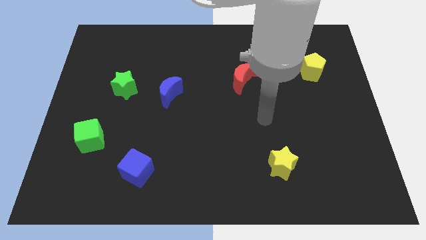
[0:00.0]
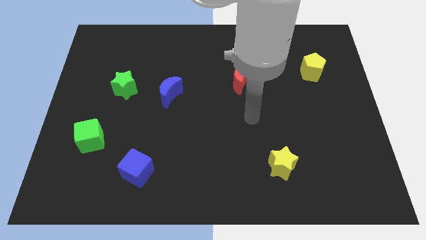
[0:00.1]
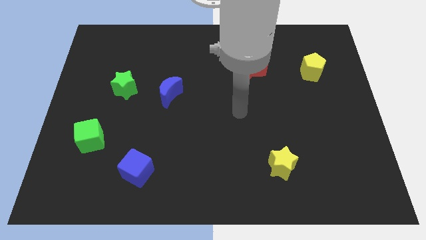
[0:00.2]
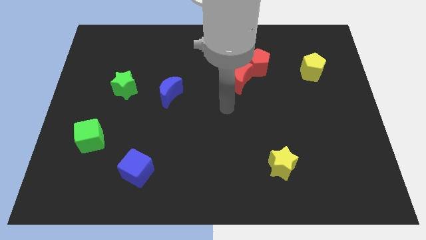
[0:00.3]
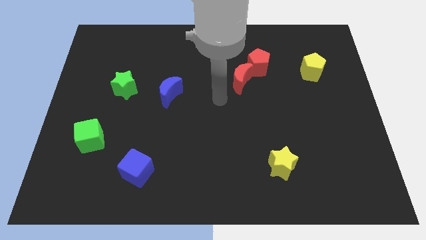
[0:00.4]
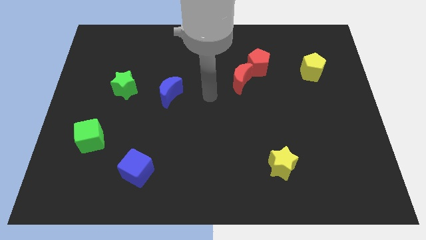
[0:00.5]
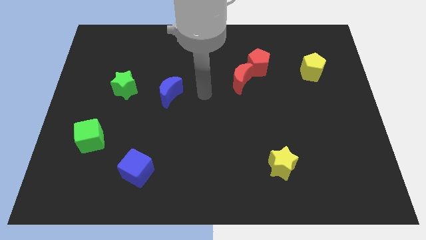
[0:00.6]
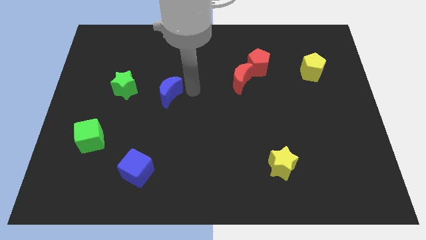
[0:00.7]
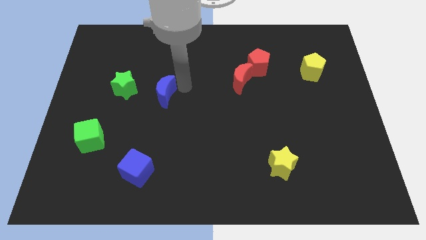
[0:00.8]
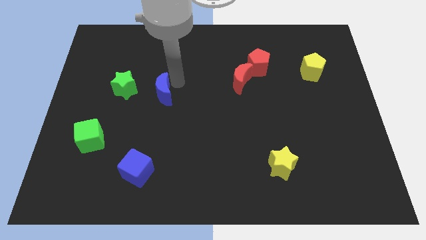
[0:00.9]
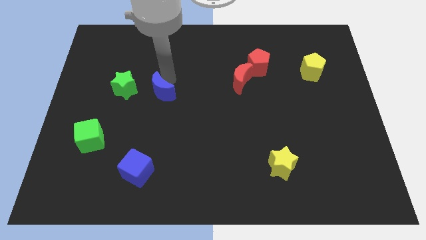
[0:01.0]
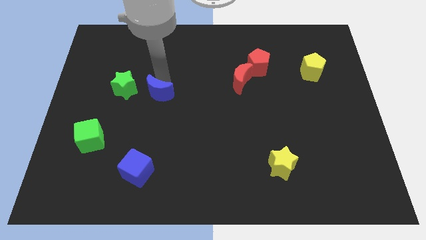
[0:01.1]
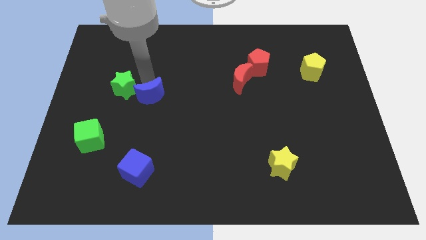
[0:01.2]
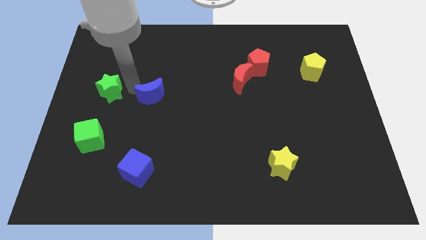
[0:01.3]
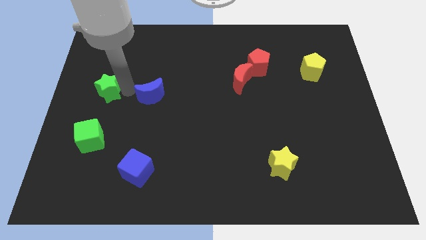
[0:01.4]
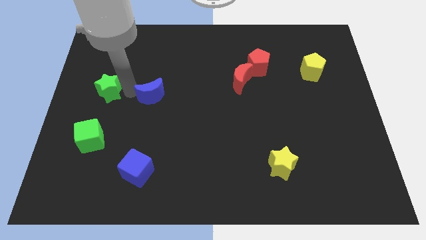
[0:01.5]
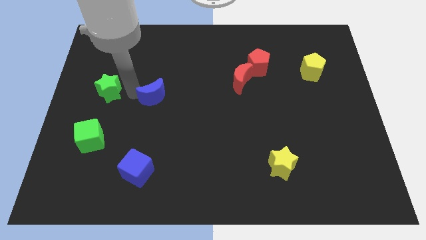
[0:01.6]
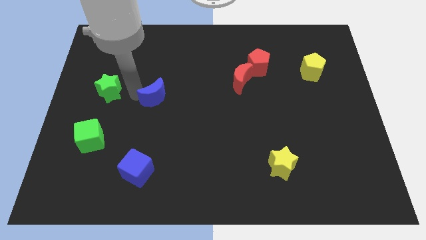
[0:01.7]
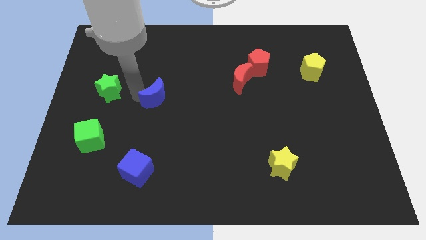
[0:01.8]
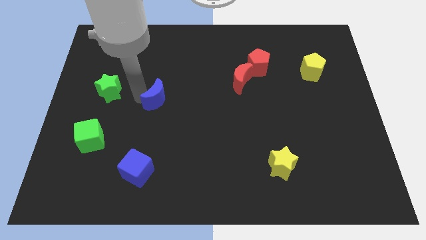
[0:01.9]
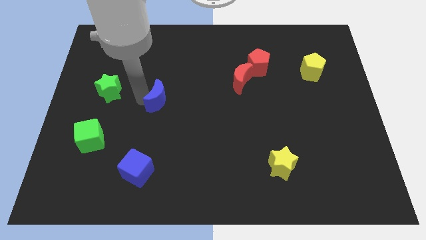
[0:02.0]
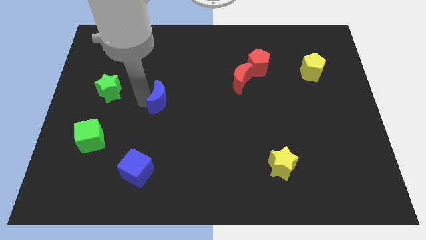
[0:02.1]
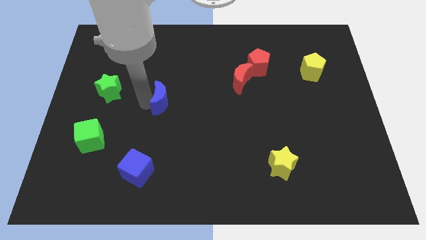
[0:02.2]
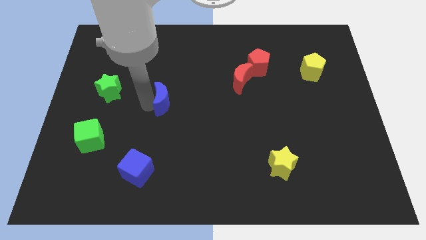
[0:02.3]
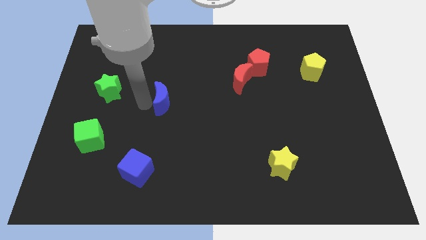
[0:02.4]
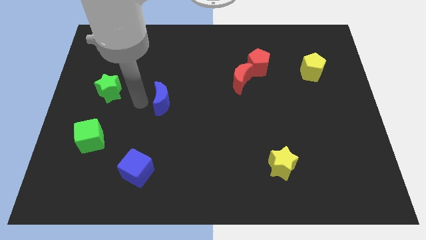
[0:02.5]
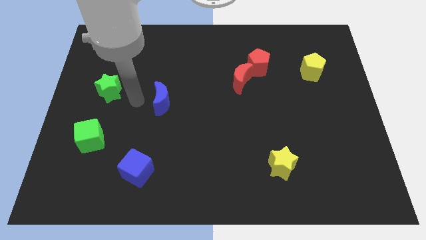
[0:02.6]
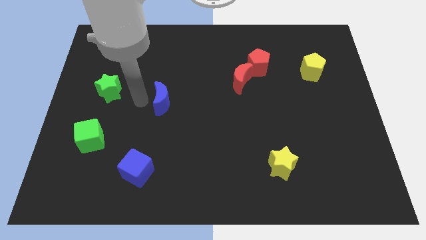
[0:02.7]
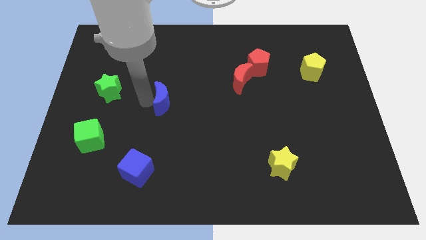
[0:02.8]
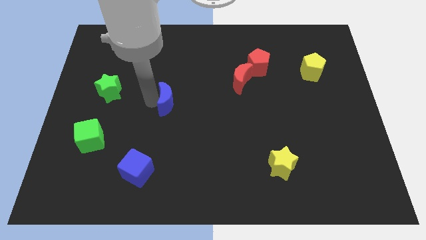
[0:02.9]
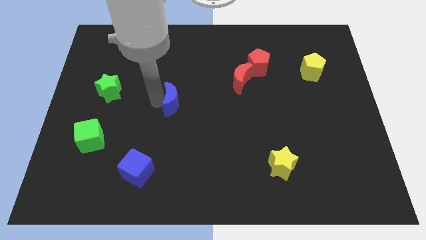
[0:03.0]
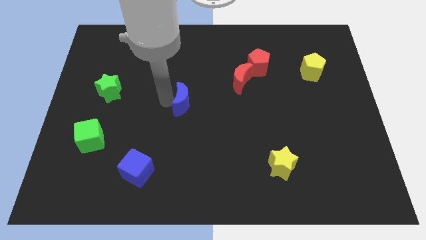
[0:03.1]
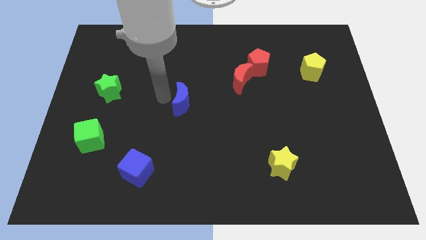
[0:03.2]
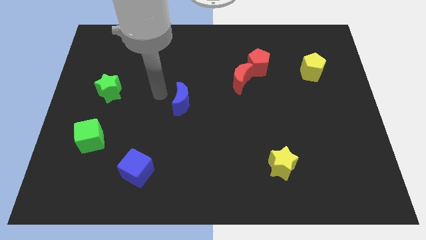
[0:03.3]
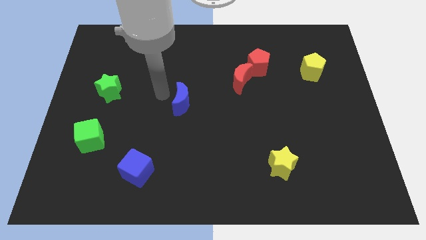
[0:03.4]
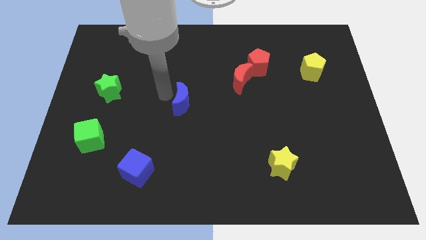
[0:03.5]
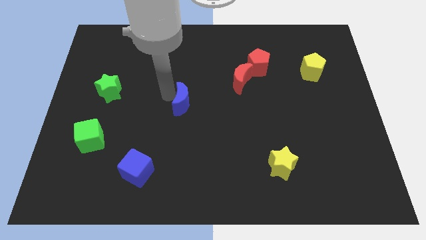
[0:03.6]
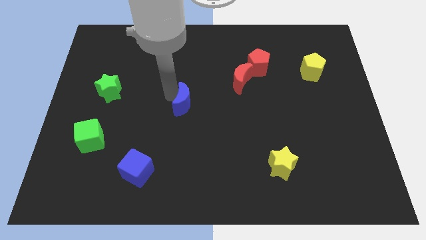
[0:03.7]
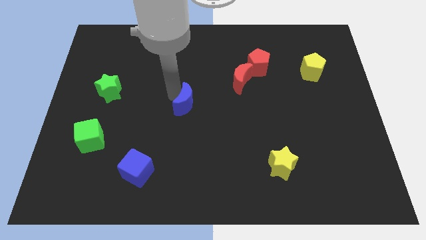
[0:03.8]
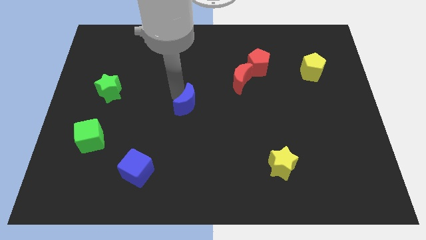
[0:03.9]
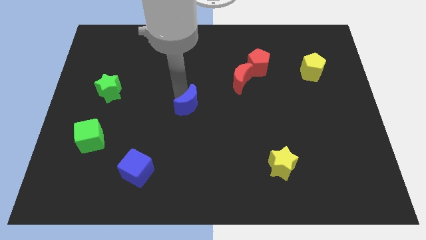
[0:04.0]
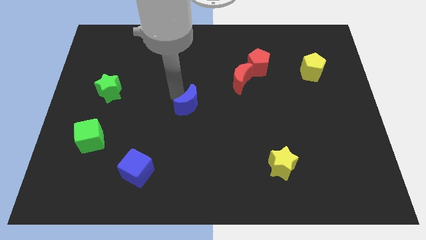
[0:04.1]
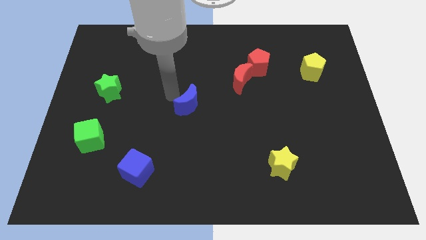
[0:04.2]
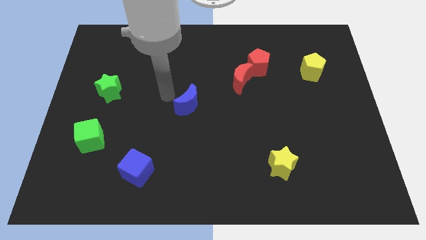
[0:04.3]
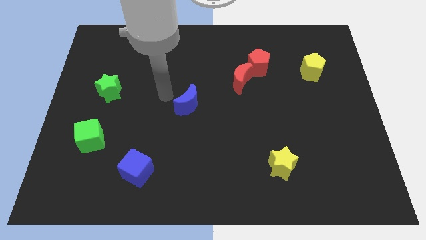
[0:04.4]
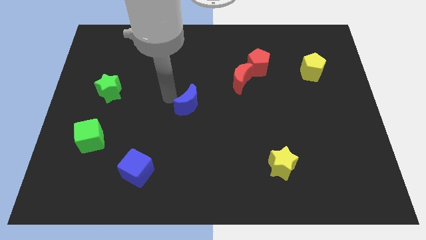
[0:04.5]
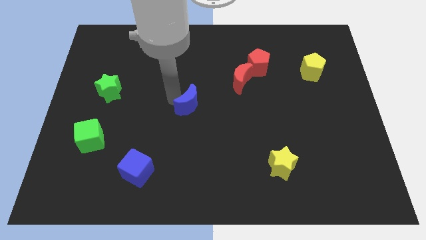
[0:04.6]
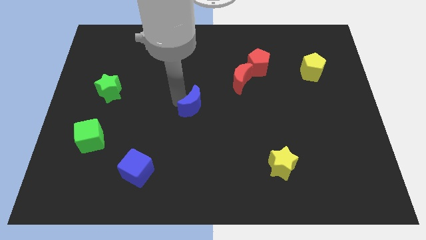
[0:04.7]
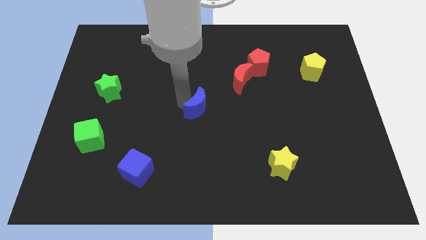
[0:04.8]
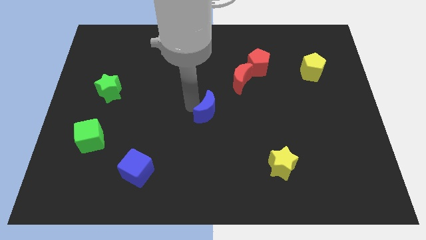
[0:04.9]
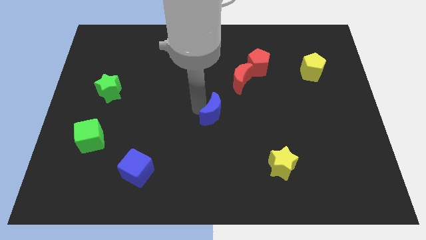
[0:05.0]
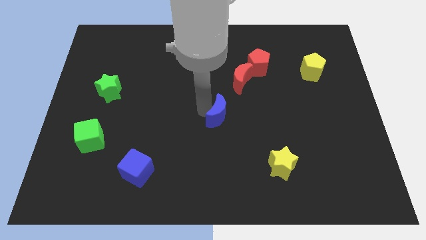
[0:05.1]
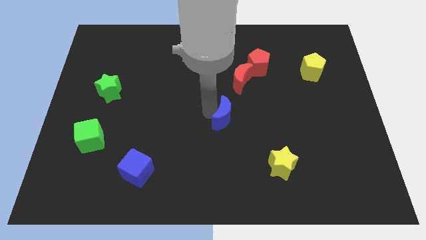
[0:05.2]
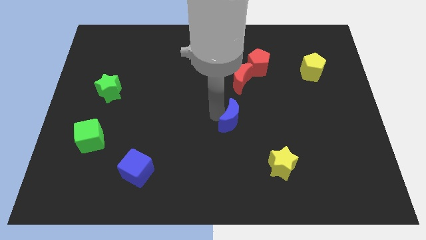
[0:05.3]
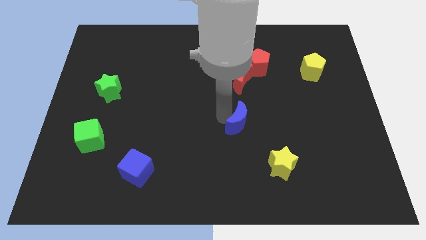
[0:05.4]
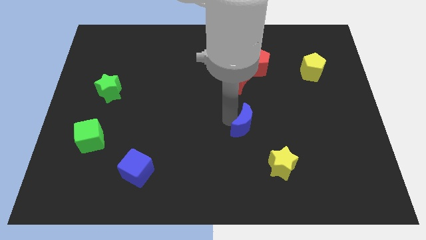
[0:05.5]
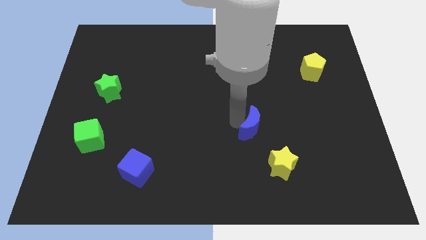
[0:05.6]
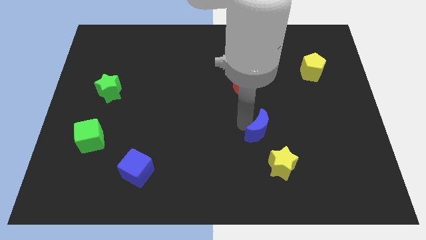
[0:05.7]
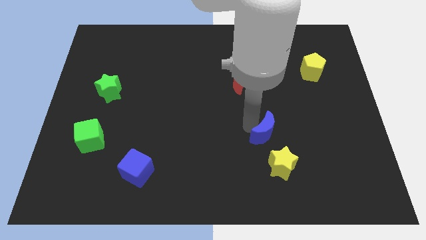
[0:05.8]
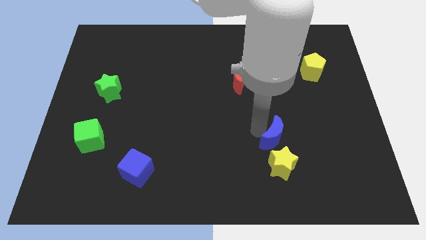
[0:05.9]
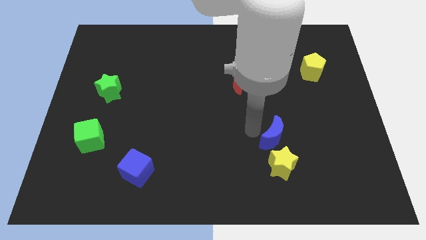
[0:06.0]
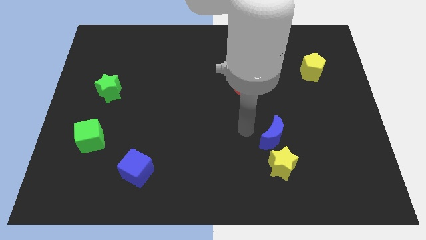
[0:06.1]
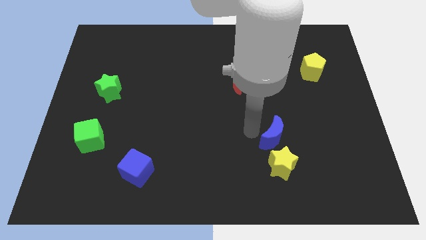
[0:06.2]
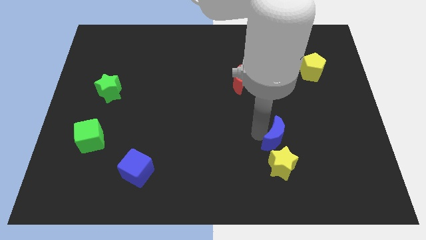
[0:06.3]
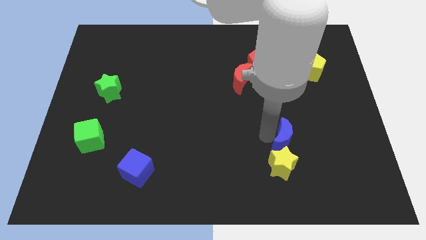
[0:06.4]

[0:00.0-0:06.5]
slide the blue moon diagonally up and to the right of the yellow star

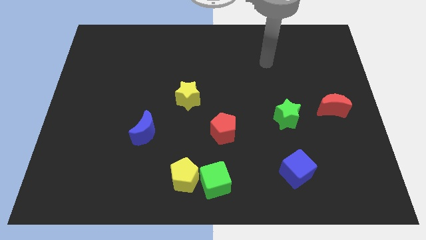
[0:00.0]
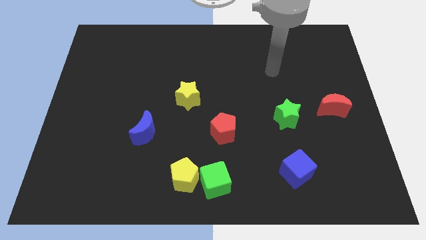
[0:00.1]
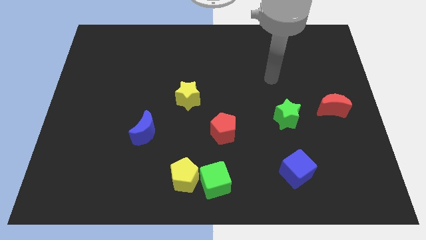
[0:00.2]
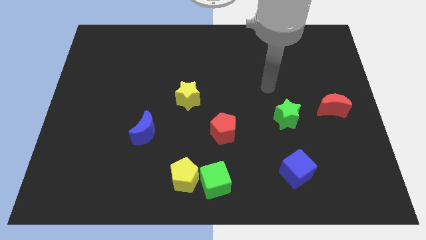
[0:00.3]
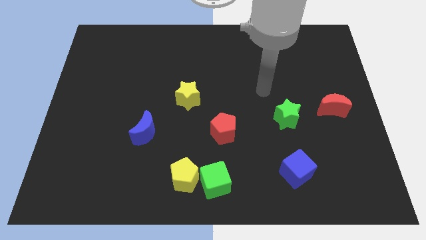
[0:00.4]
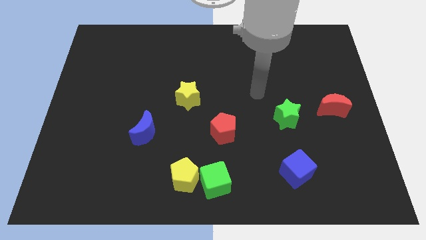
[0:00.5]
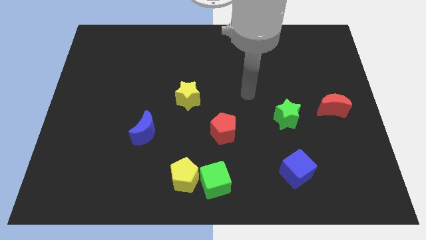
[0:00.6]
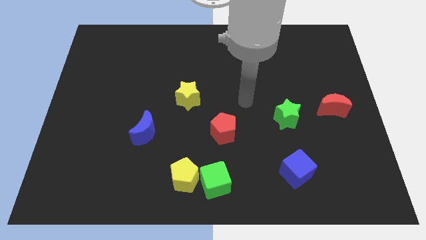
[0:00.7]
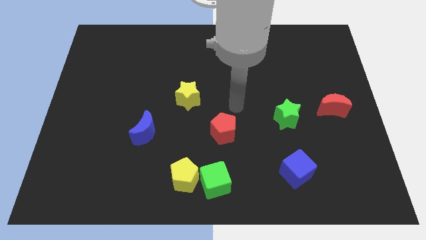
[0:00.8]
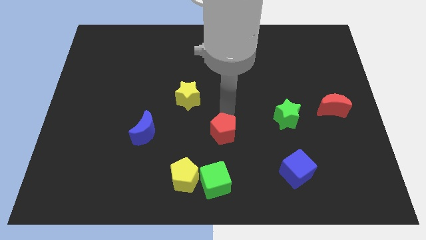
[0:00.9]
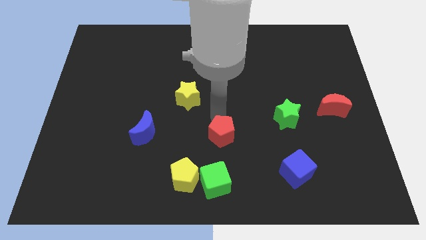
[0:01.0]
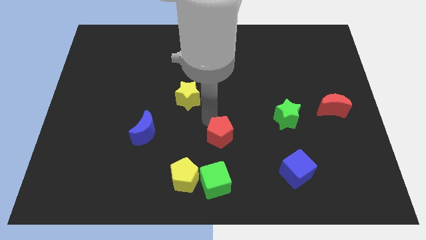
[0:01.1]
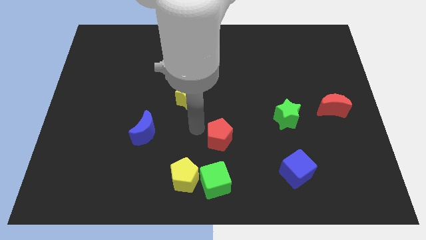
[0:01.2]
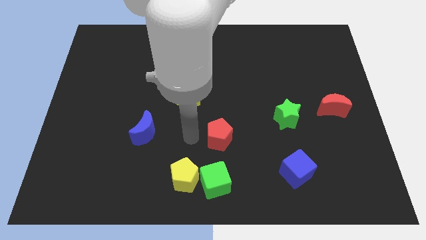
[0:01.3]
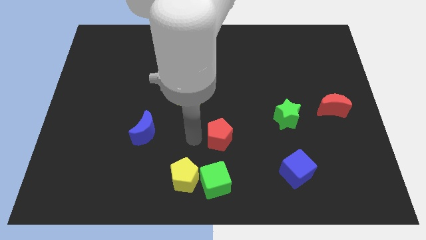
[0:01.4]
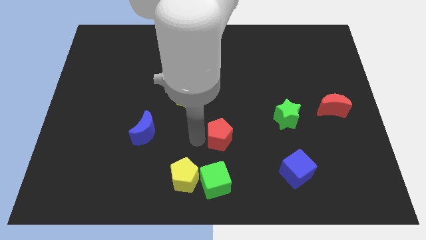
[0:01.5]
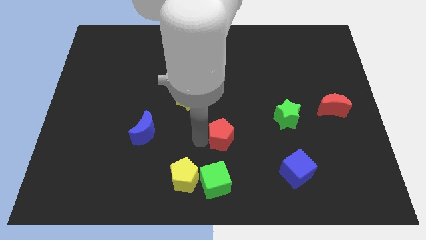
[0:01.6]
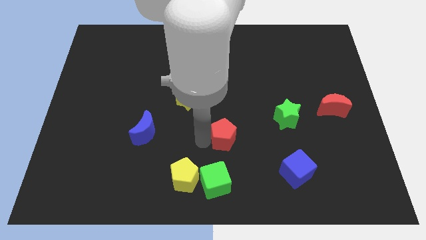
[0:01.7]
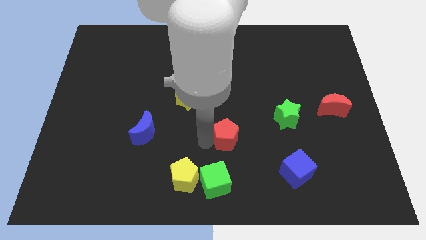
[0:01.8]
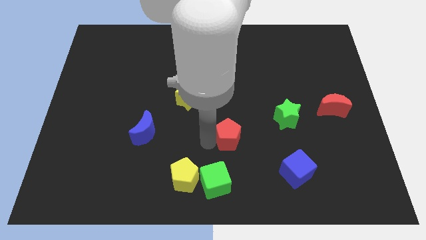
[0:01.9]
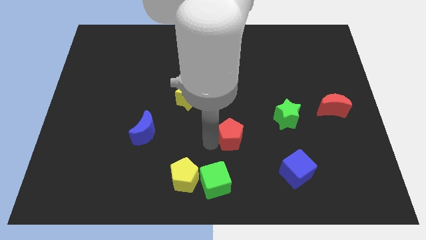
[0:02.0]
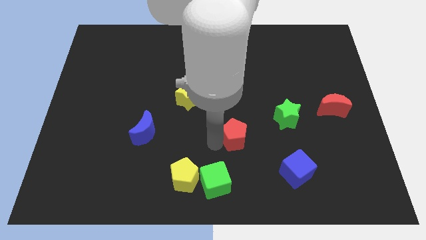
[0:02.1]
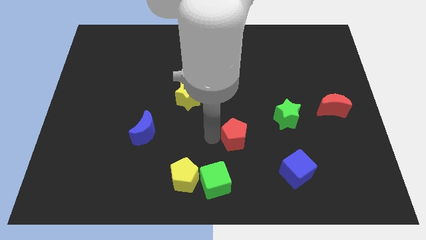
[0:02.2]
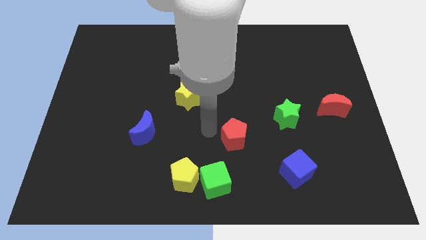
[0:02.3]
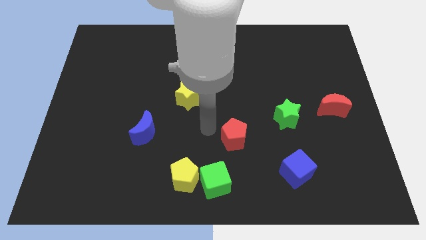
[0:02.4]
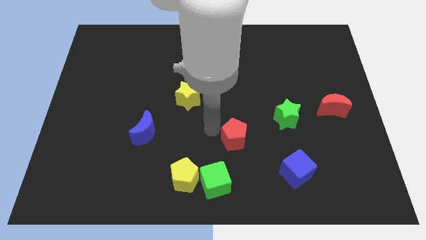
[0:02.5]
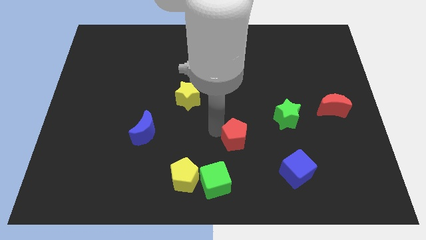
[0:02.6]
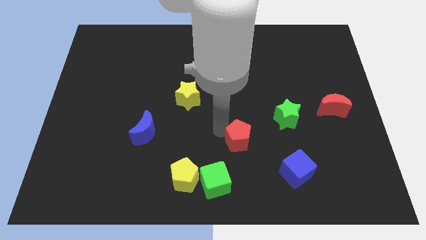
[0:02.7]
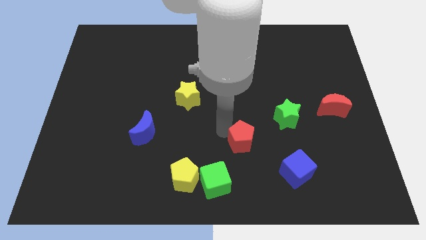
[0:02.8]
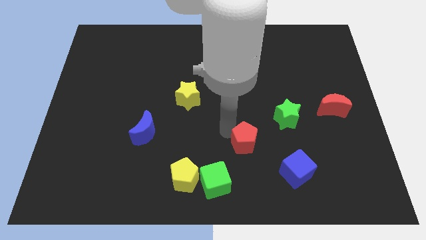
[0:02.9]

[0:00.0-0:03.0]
slide the red pentagon to the top left of the blue cube
